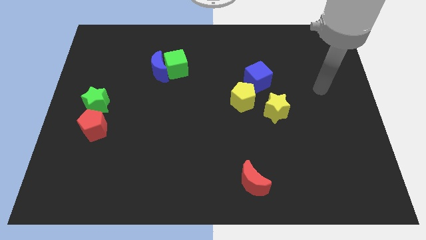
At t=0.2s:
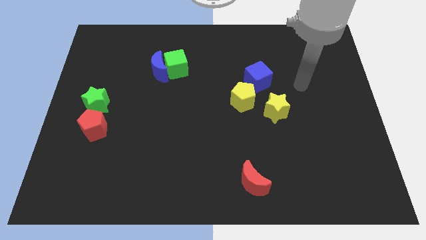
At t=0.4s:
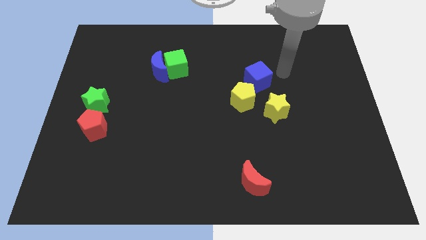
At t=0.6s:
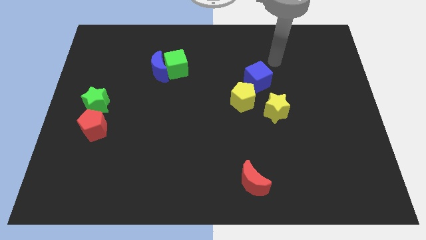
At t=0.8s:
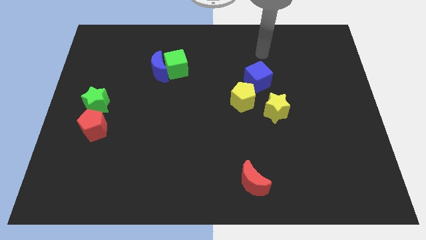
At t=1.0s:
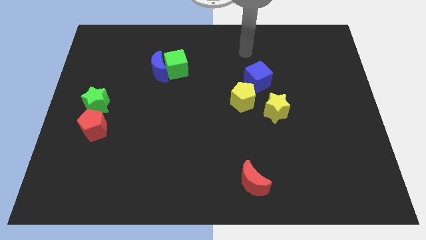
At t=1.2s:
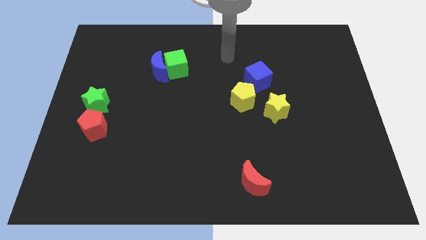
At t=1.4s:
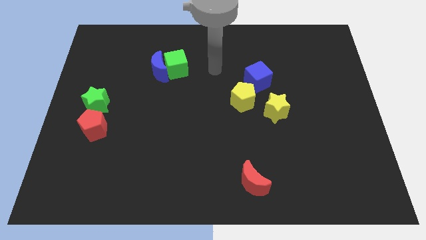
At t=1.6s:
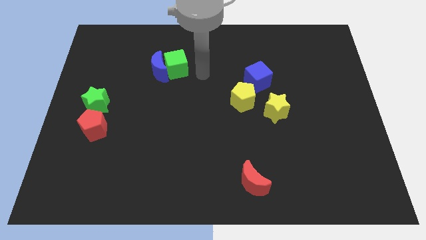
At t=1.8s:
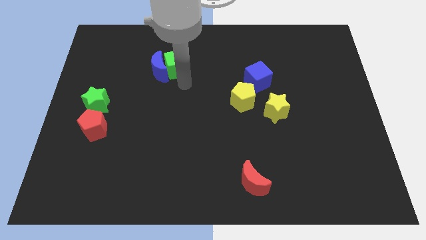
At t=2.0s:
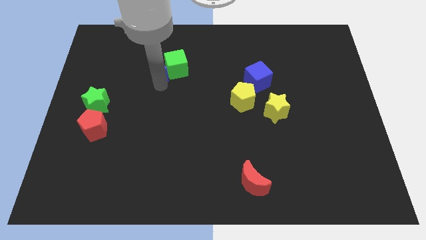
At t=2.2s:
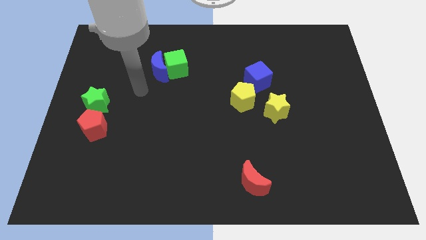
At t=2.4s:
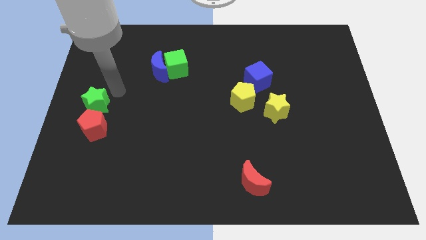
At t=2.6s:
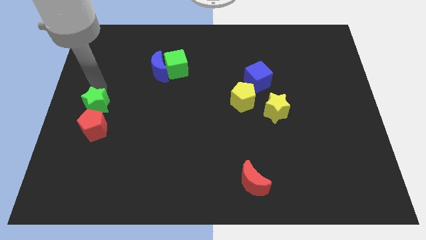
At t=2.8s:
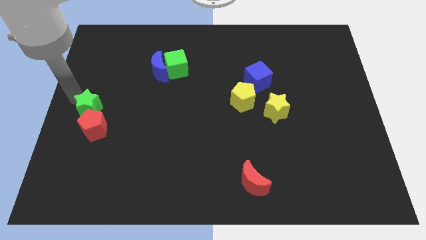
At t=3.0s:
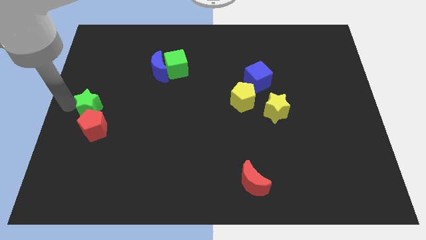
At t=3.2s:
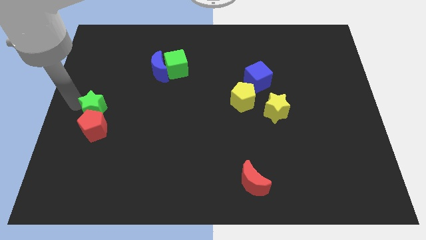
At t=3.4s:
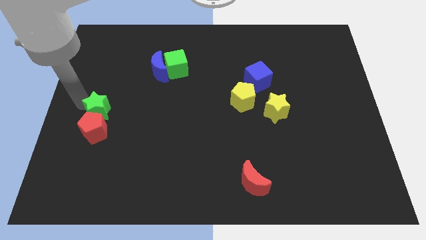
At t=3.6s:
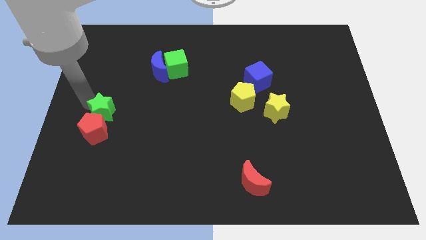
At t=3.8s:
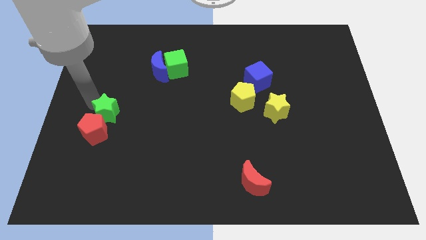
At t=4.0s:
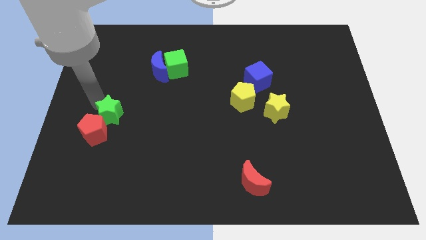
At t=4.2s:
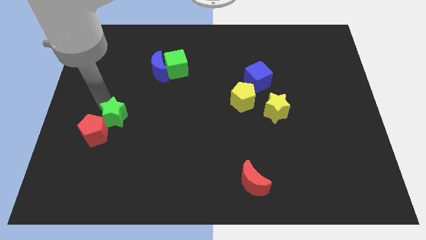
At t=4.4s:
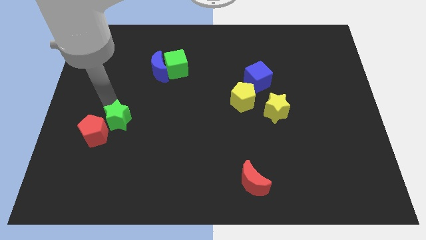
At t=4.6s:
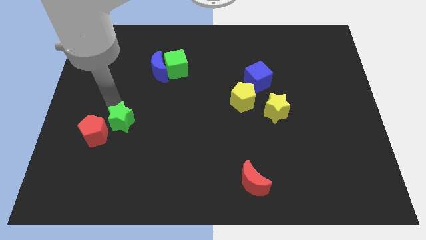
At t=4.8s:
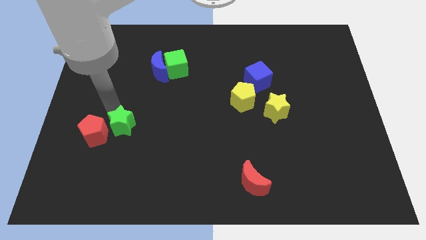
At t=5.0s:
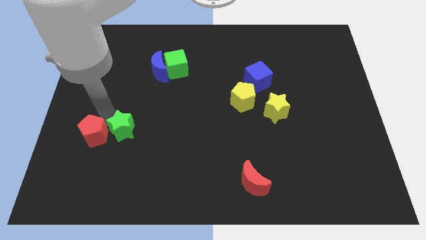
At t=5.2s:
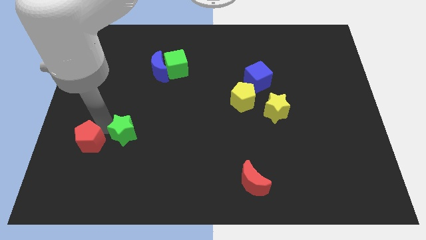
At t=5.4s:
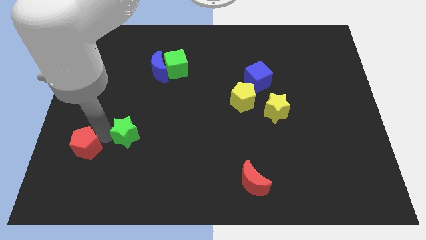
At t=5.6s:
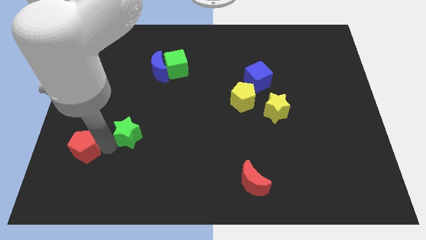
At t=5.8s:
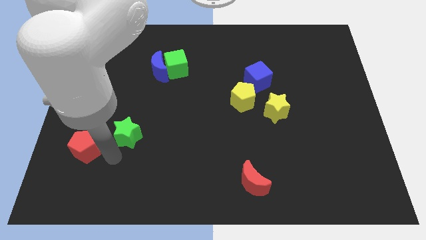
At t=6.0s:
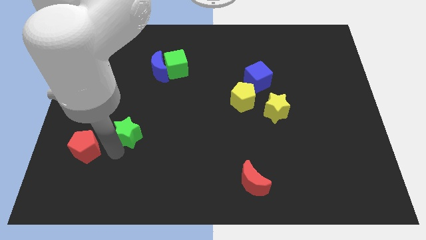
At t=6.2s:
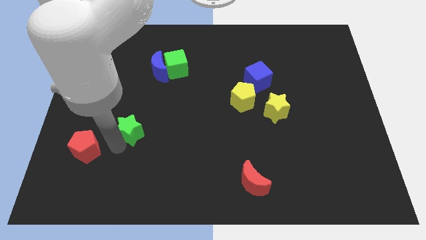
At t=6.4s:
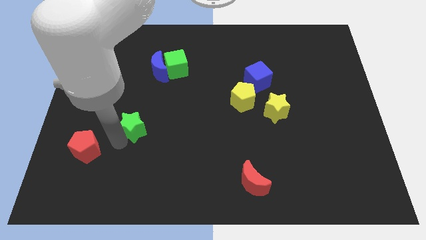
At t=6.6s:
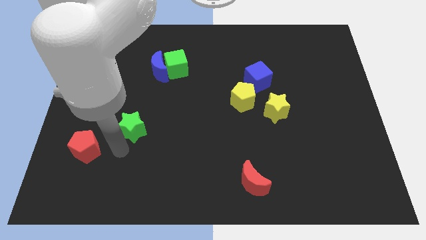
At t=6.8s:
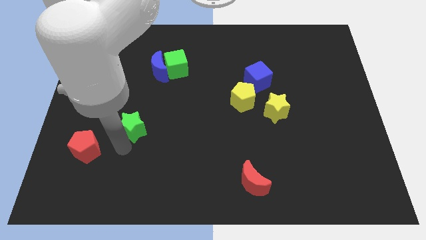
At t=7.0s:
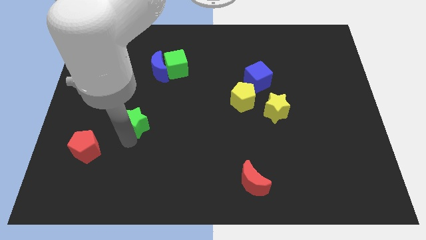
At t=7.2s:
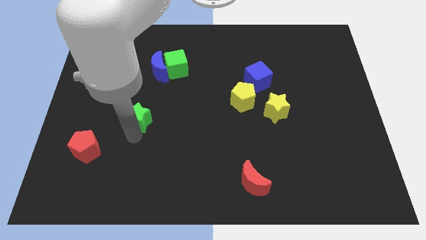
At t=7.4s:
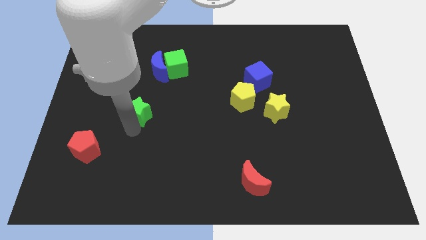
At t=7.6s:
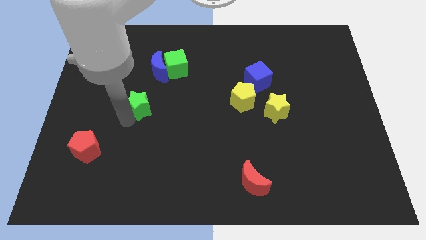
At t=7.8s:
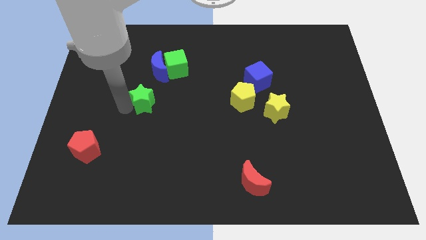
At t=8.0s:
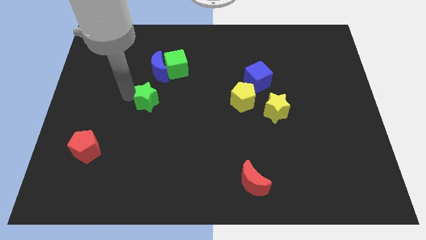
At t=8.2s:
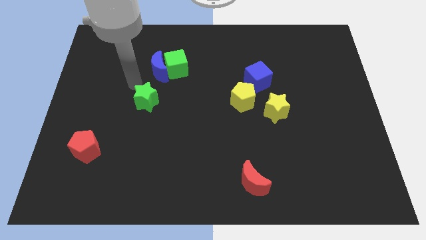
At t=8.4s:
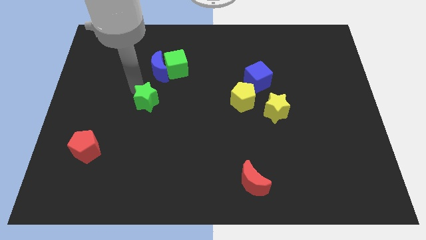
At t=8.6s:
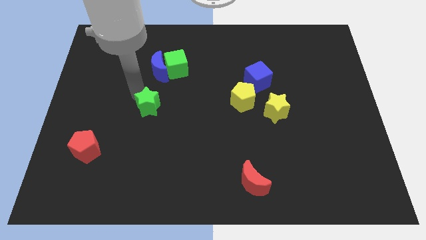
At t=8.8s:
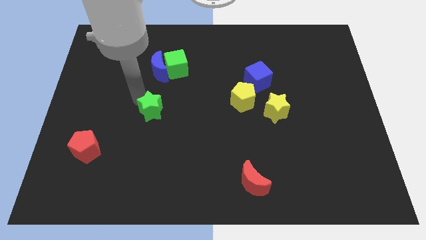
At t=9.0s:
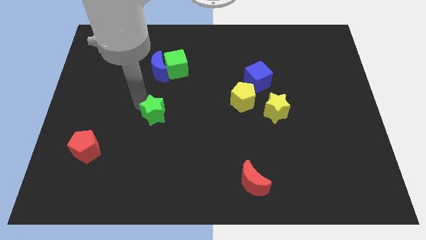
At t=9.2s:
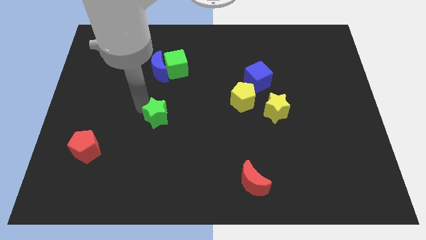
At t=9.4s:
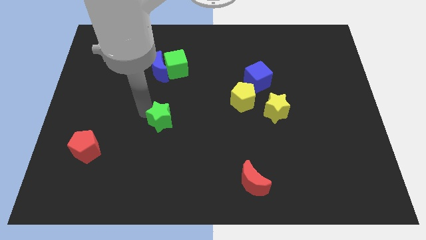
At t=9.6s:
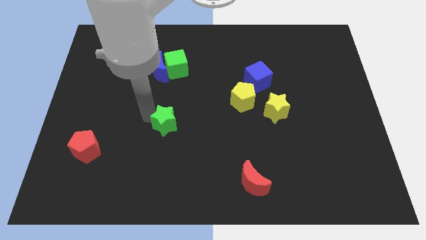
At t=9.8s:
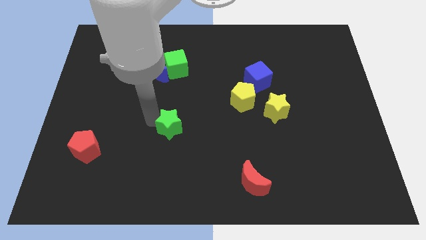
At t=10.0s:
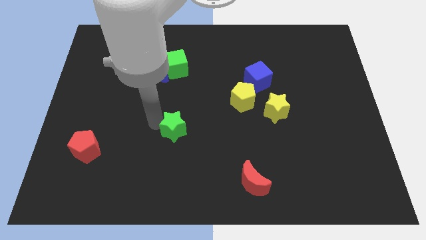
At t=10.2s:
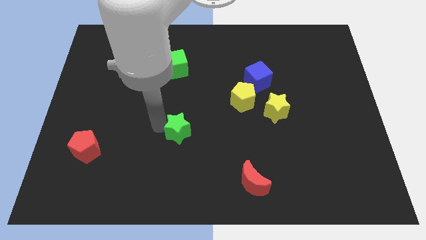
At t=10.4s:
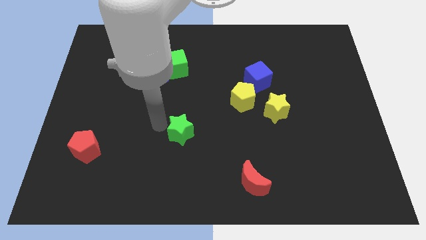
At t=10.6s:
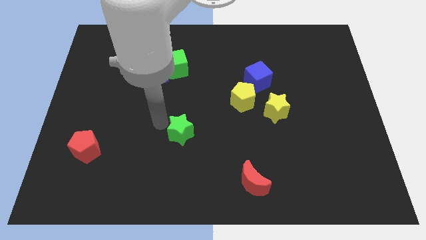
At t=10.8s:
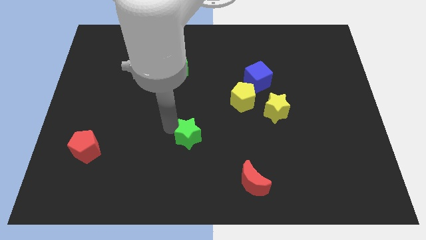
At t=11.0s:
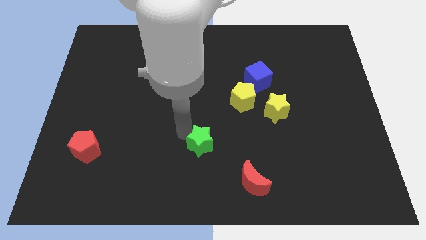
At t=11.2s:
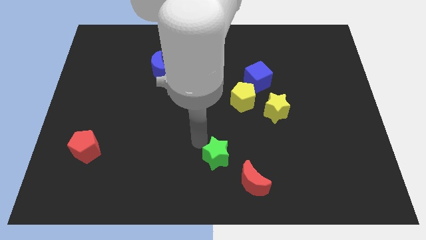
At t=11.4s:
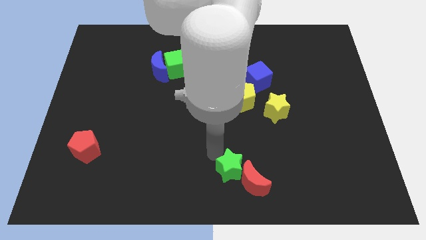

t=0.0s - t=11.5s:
put the green star next to the red moon

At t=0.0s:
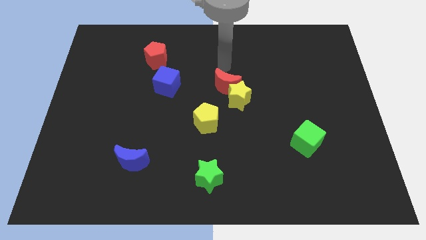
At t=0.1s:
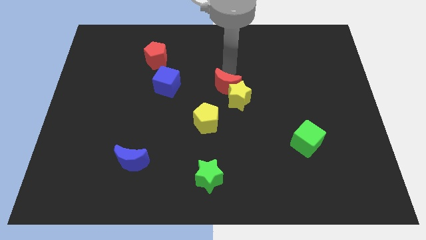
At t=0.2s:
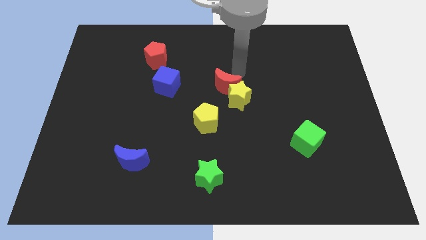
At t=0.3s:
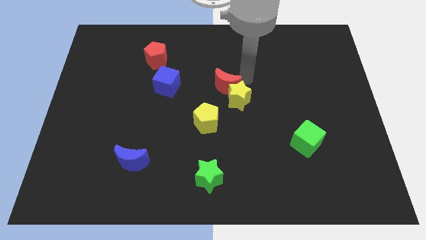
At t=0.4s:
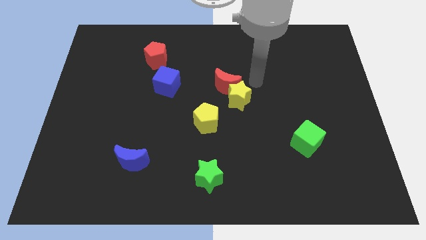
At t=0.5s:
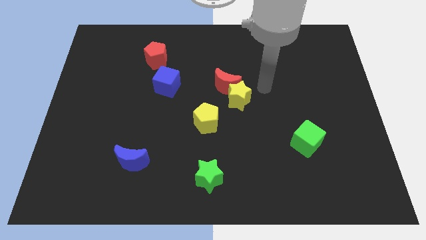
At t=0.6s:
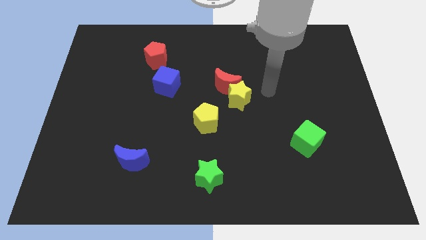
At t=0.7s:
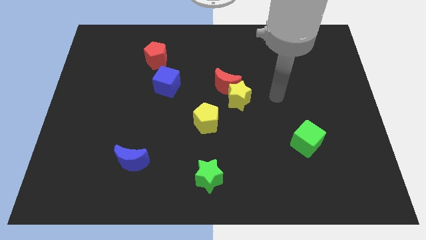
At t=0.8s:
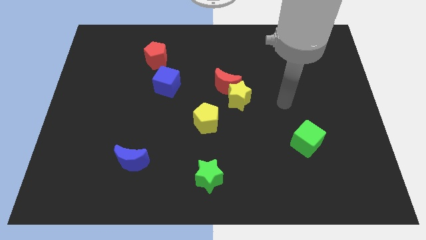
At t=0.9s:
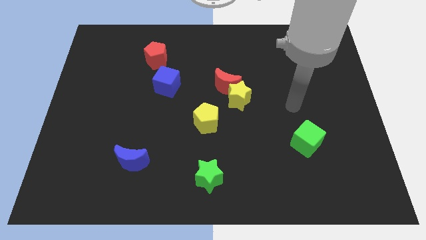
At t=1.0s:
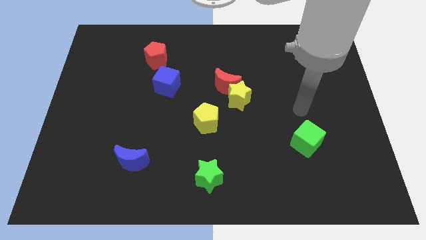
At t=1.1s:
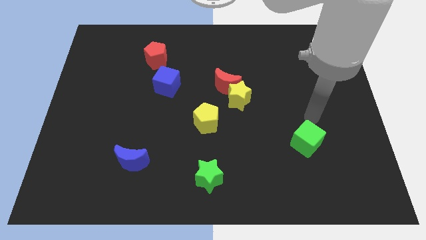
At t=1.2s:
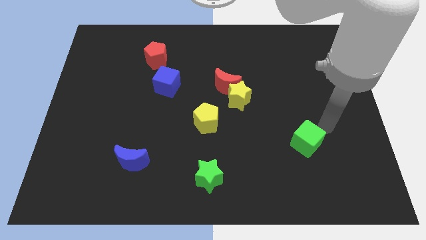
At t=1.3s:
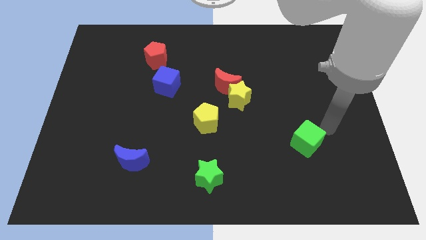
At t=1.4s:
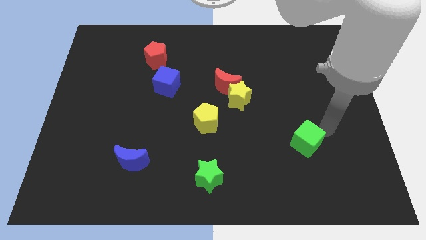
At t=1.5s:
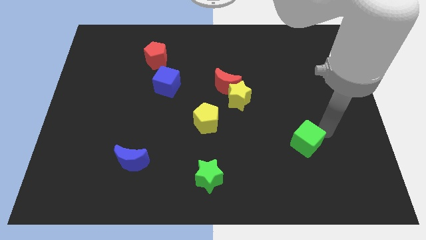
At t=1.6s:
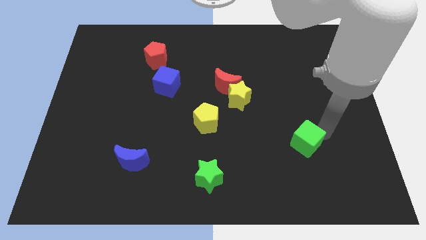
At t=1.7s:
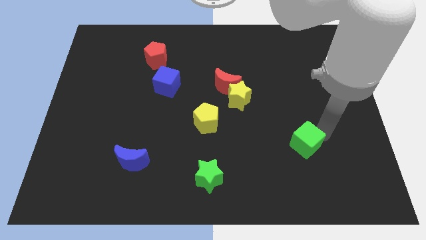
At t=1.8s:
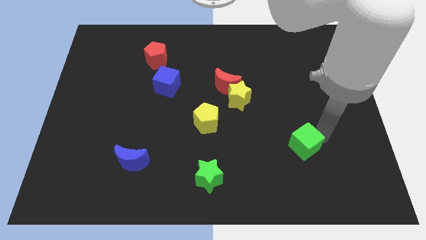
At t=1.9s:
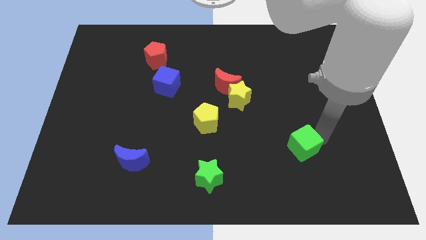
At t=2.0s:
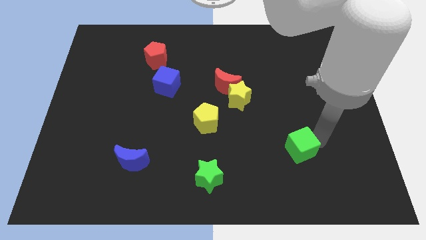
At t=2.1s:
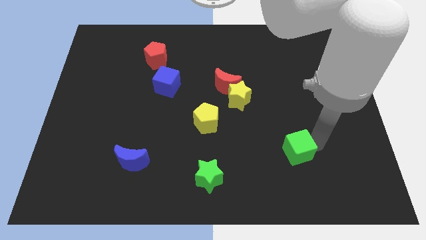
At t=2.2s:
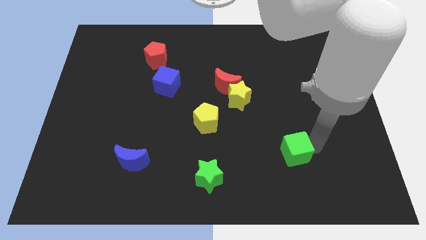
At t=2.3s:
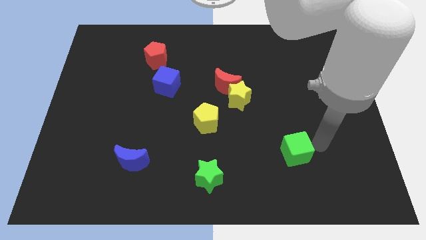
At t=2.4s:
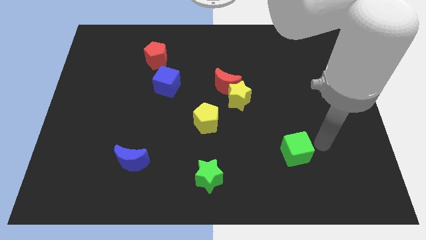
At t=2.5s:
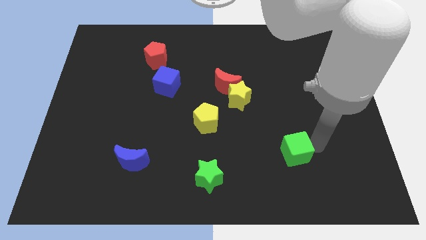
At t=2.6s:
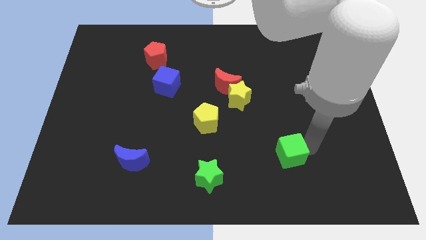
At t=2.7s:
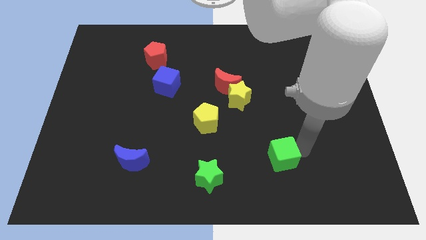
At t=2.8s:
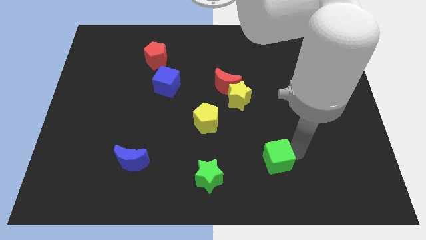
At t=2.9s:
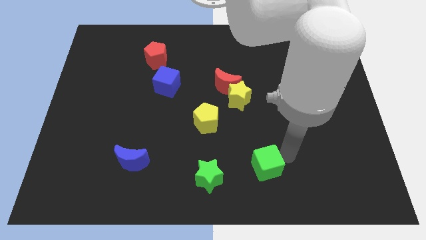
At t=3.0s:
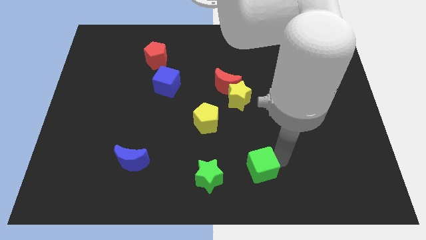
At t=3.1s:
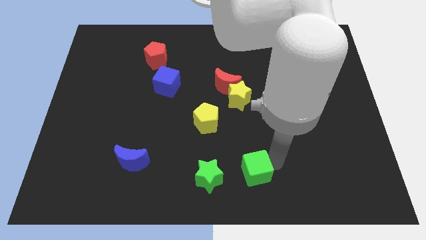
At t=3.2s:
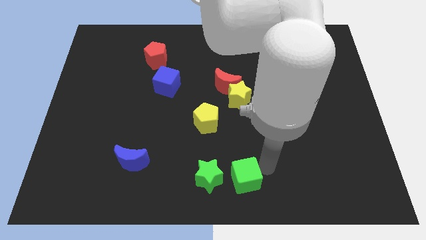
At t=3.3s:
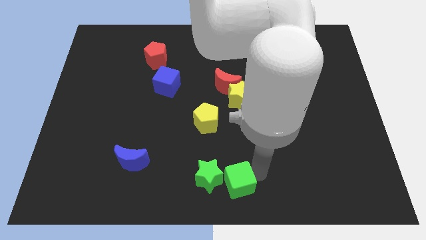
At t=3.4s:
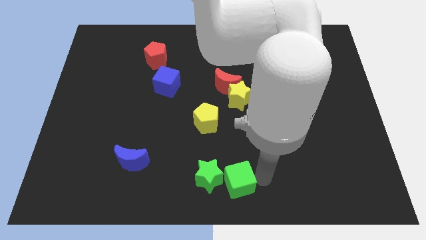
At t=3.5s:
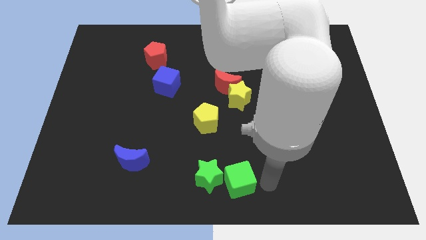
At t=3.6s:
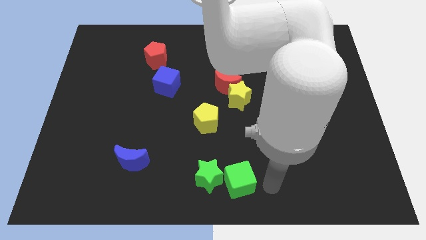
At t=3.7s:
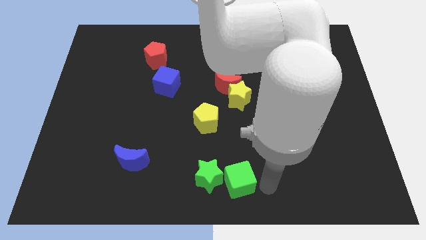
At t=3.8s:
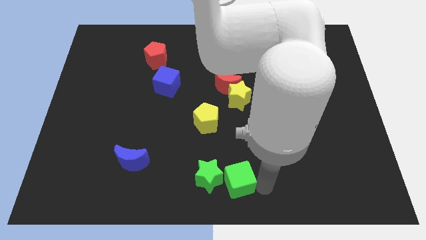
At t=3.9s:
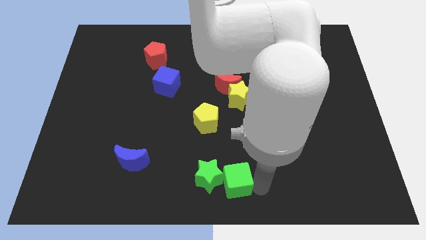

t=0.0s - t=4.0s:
push the green cube to the green star
